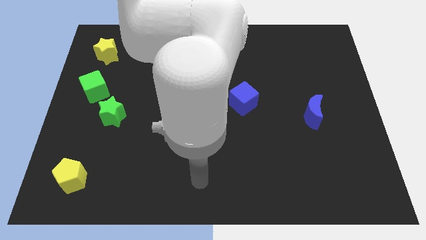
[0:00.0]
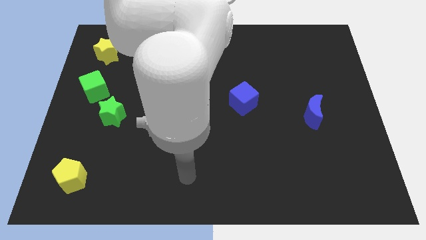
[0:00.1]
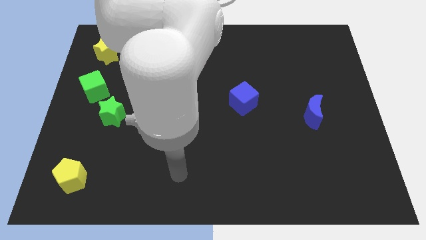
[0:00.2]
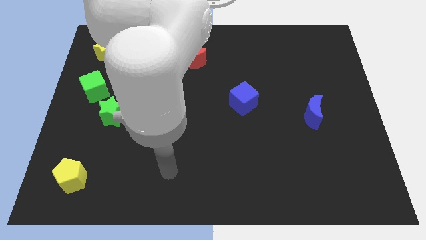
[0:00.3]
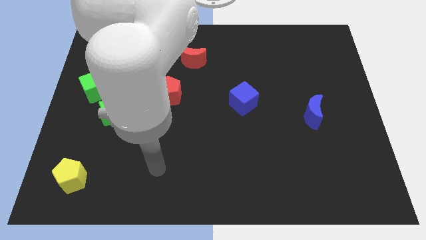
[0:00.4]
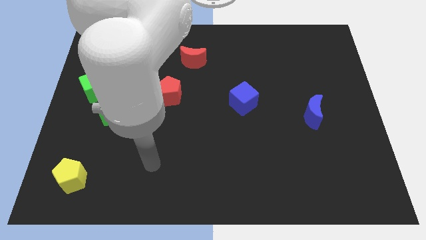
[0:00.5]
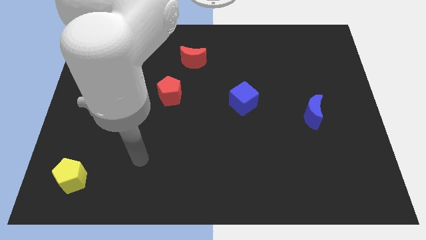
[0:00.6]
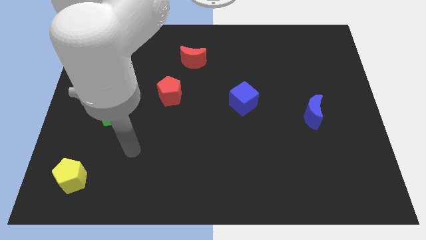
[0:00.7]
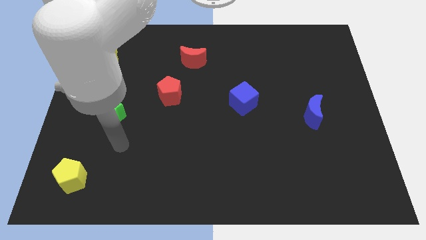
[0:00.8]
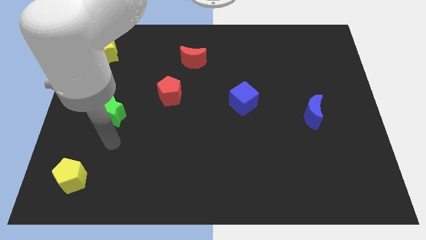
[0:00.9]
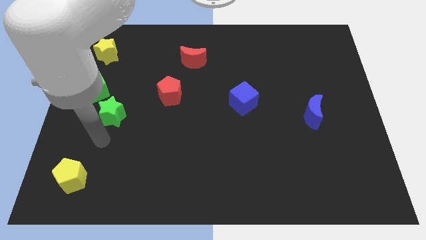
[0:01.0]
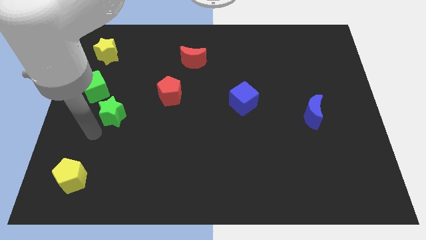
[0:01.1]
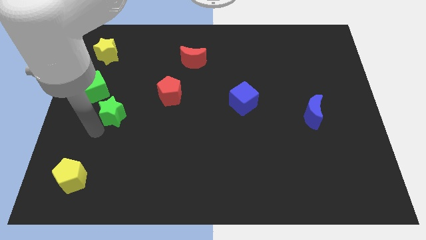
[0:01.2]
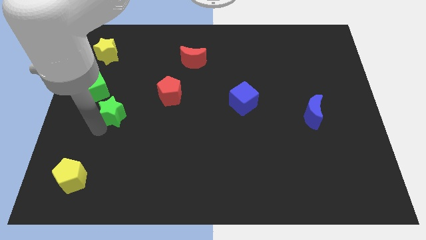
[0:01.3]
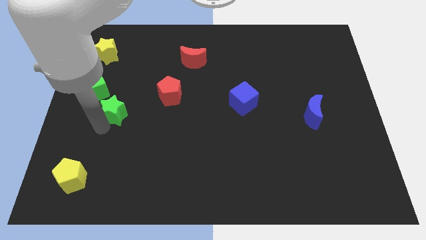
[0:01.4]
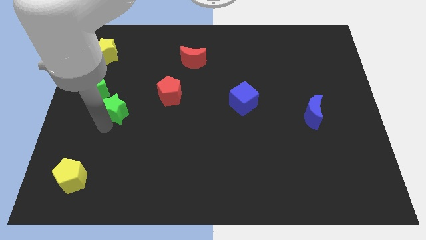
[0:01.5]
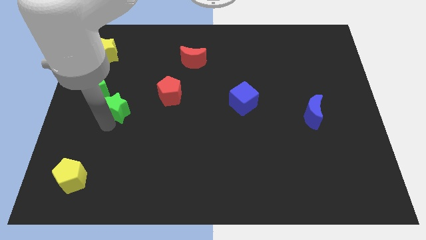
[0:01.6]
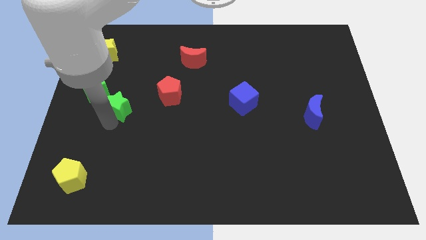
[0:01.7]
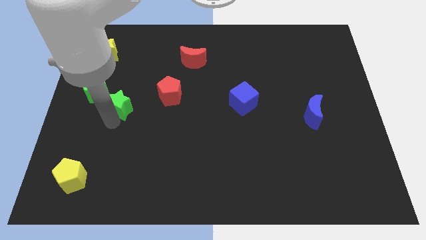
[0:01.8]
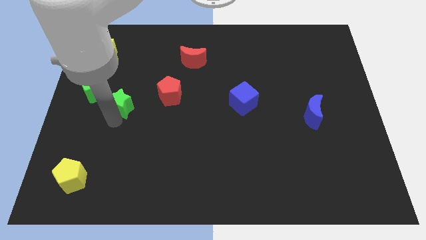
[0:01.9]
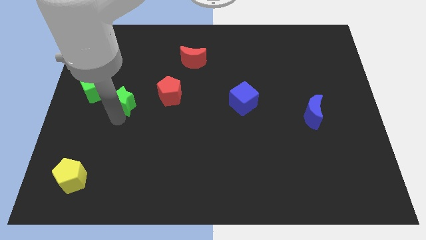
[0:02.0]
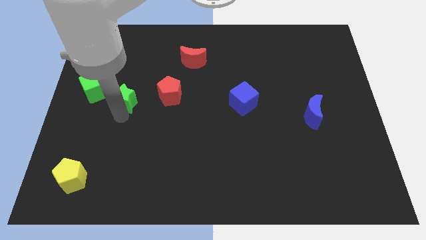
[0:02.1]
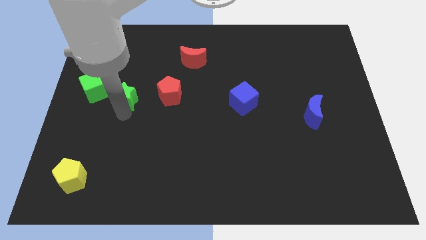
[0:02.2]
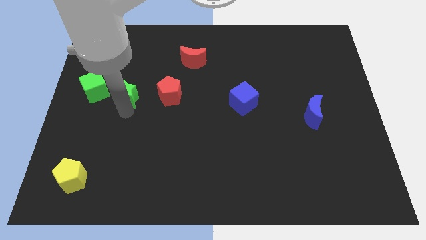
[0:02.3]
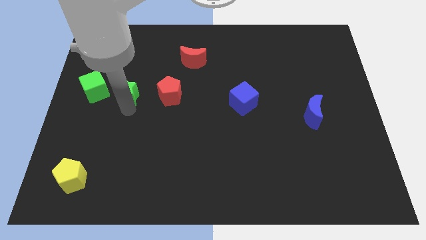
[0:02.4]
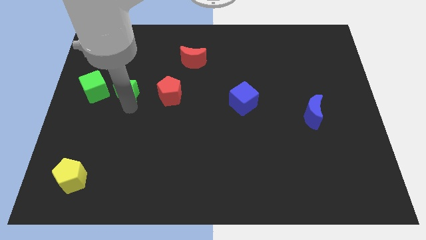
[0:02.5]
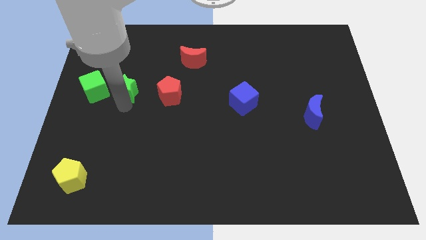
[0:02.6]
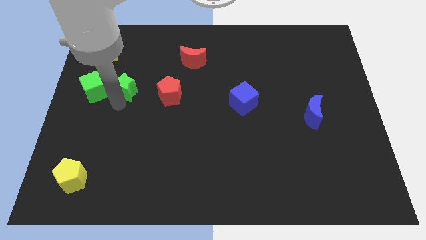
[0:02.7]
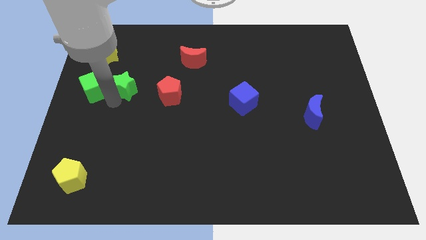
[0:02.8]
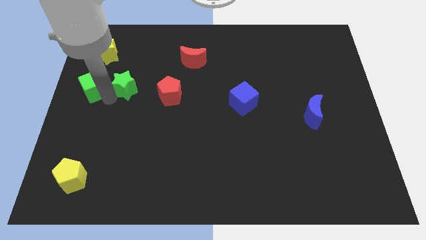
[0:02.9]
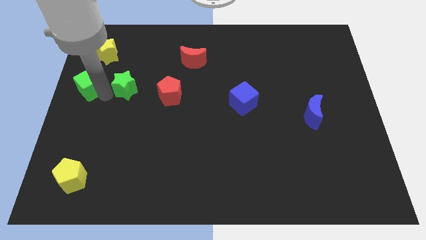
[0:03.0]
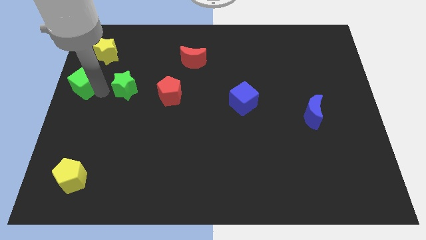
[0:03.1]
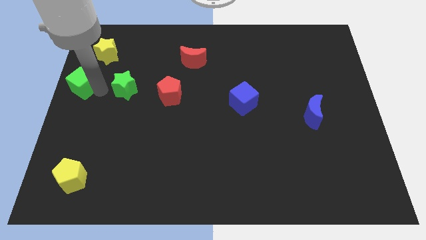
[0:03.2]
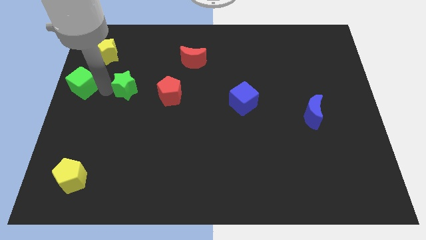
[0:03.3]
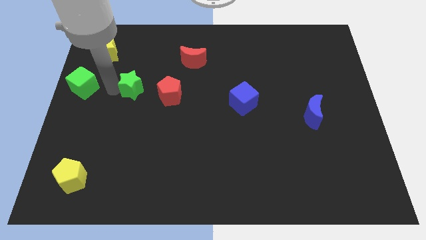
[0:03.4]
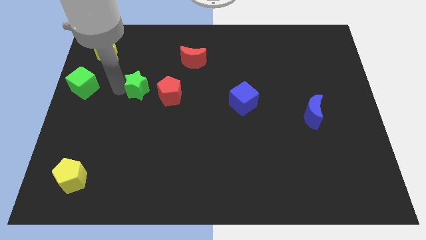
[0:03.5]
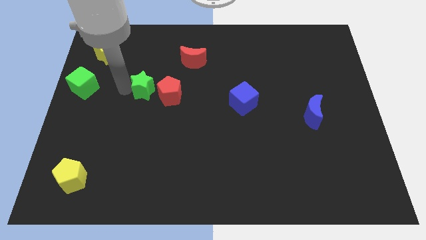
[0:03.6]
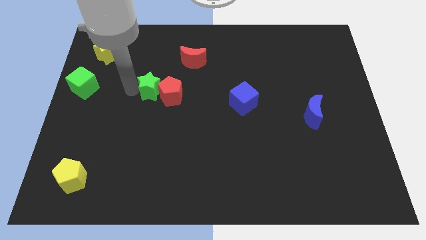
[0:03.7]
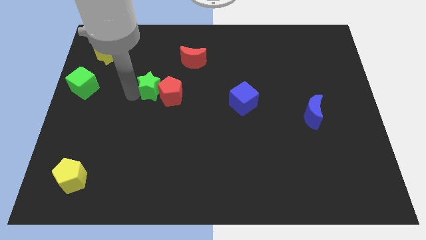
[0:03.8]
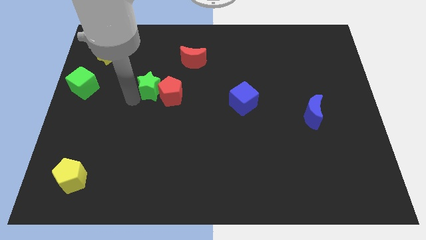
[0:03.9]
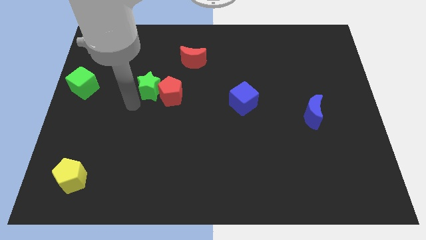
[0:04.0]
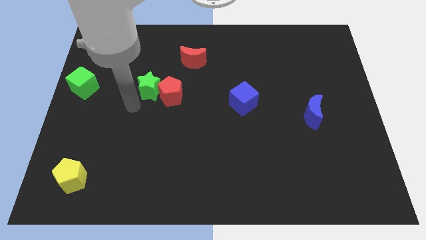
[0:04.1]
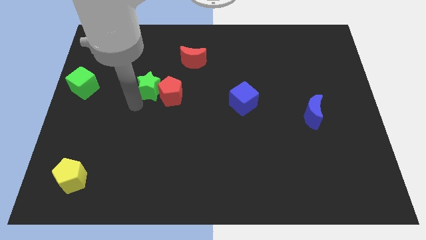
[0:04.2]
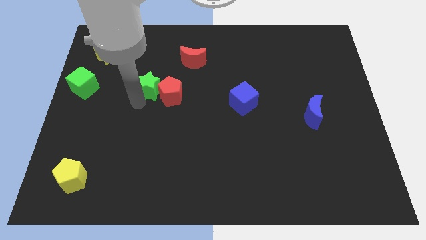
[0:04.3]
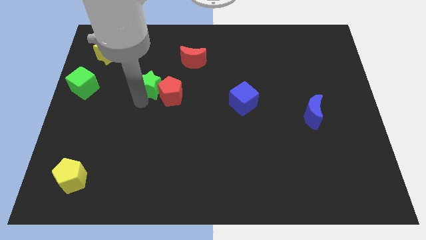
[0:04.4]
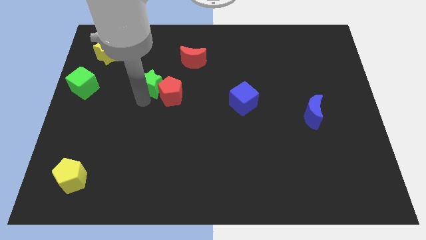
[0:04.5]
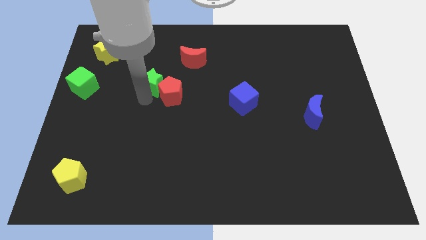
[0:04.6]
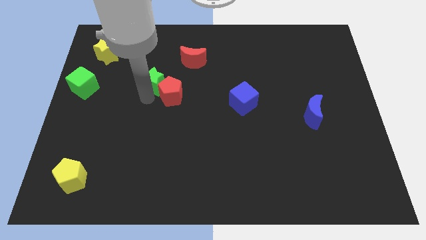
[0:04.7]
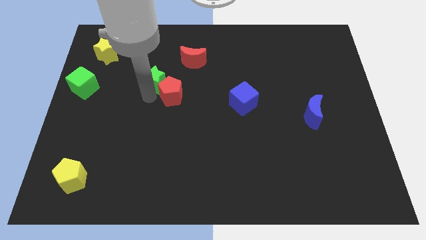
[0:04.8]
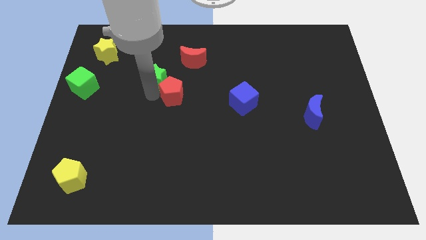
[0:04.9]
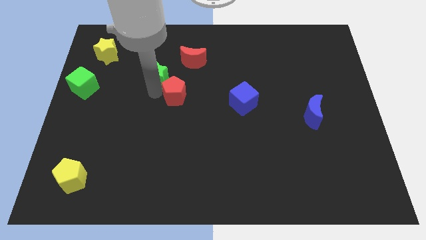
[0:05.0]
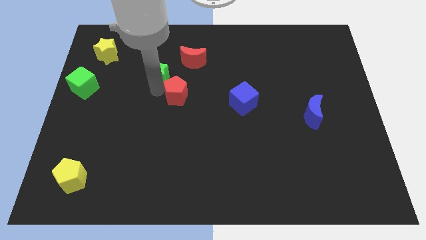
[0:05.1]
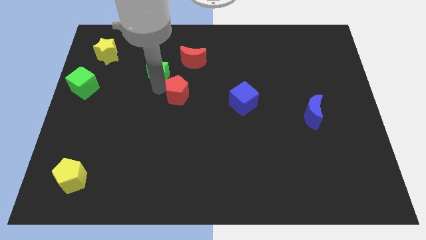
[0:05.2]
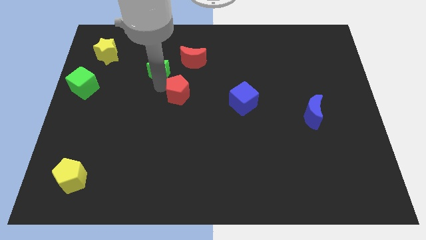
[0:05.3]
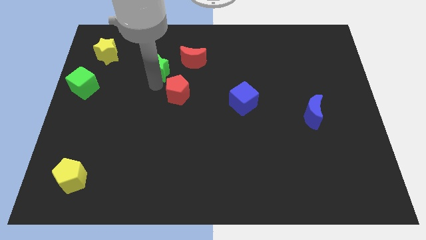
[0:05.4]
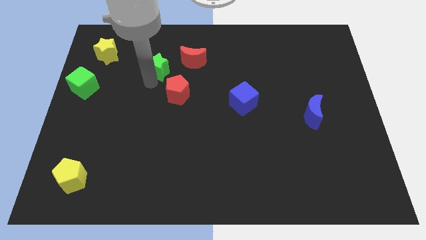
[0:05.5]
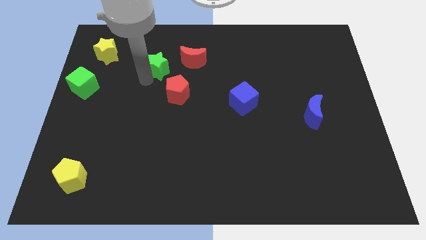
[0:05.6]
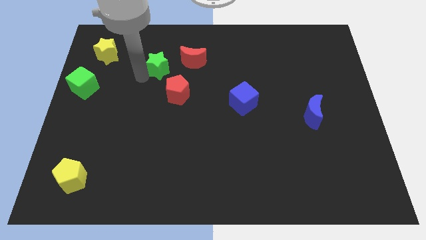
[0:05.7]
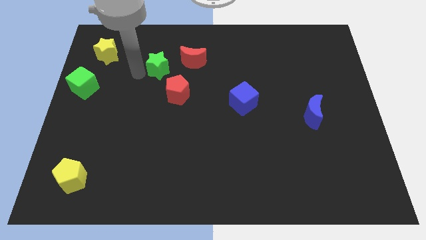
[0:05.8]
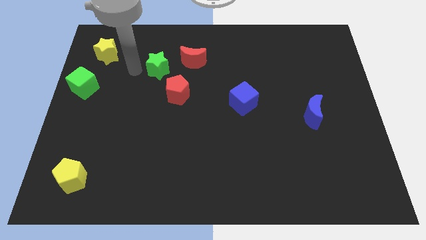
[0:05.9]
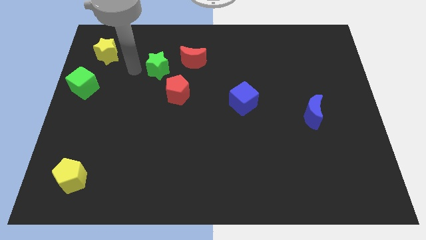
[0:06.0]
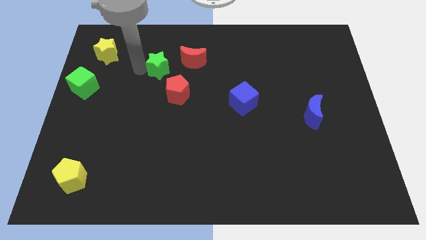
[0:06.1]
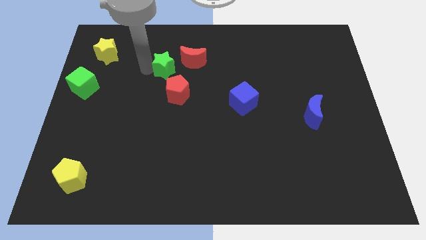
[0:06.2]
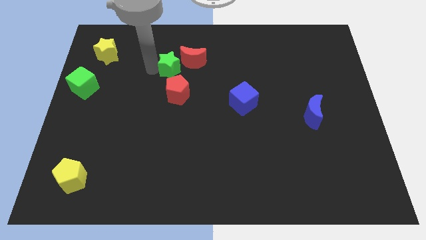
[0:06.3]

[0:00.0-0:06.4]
move the green star next to the red moon

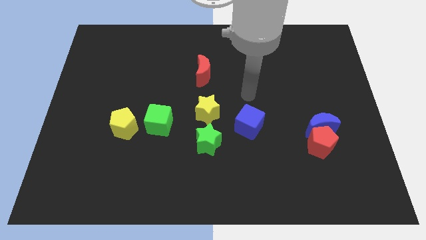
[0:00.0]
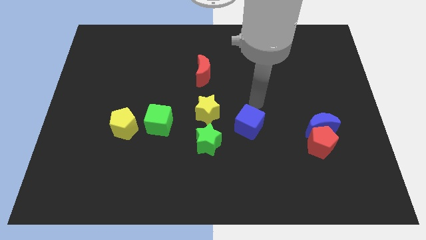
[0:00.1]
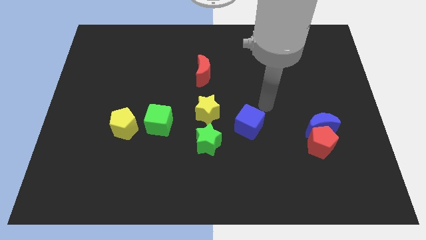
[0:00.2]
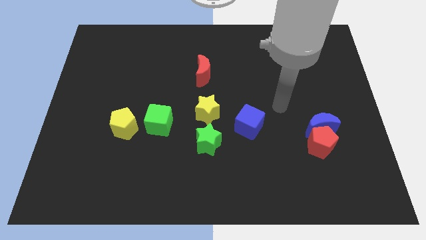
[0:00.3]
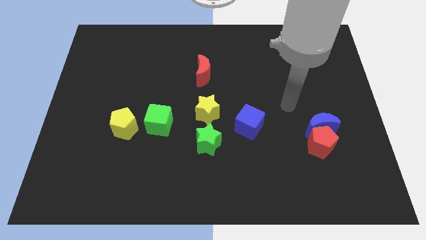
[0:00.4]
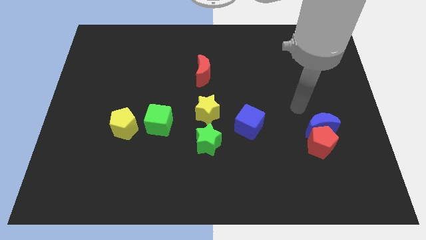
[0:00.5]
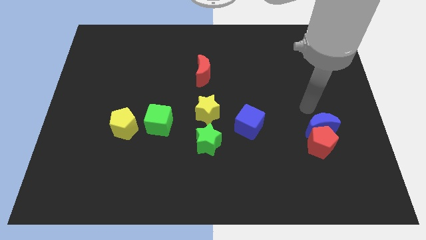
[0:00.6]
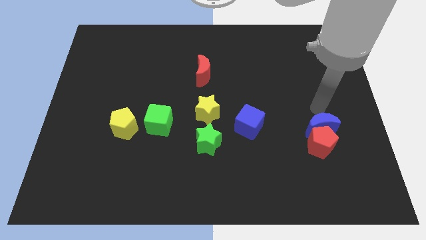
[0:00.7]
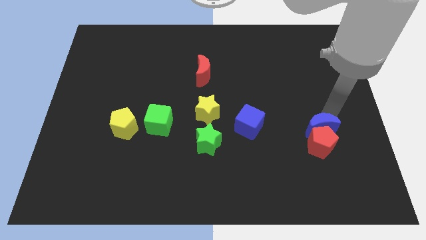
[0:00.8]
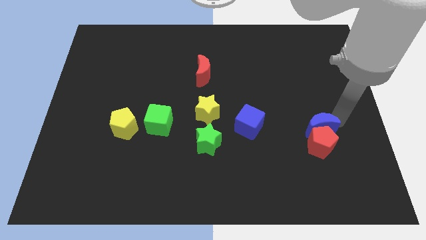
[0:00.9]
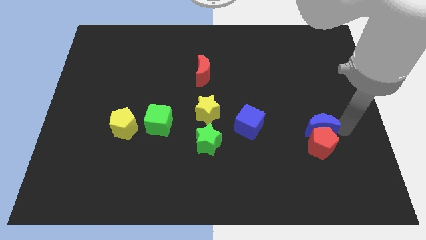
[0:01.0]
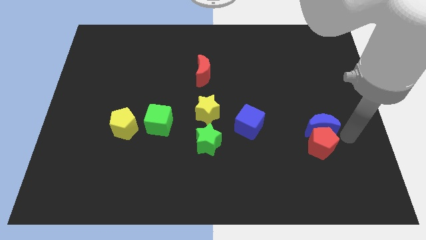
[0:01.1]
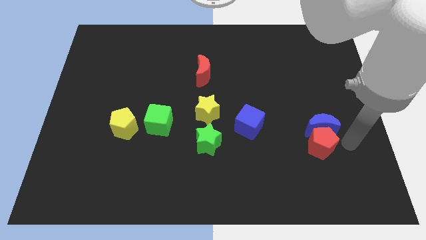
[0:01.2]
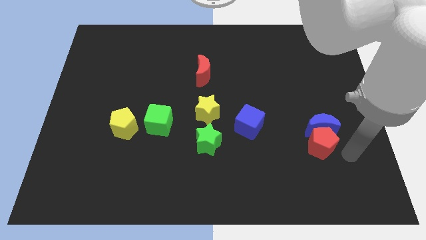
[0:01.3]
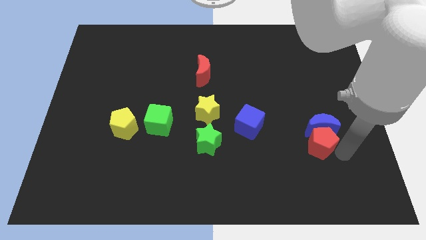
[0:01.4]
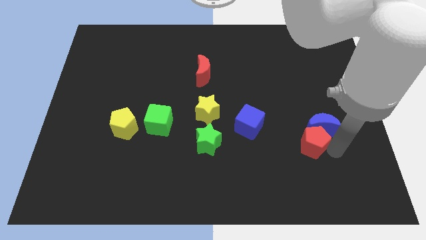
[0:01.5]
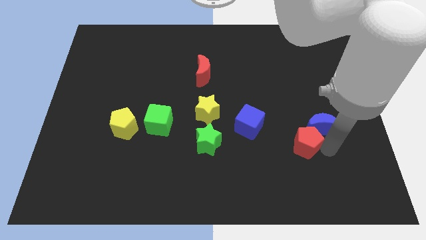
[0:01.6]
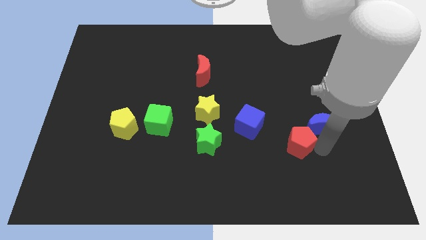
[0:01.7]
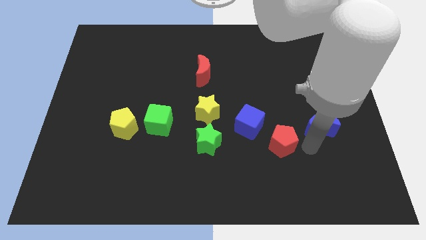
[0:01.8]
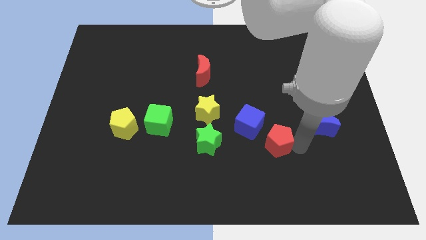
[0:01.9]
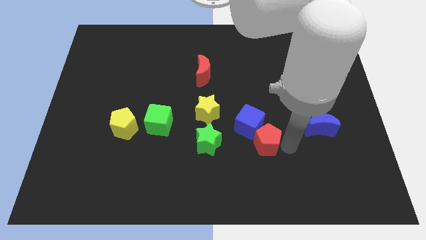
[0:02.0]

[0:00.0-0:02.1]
slide the red pentagon to the blue cube
